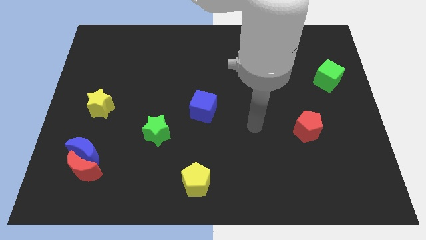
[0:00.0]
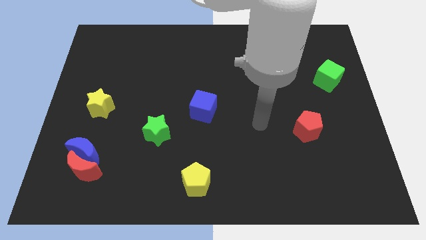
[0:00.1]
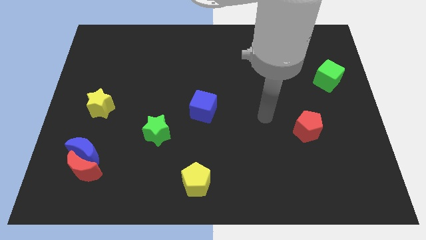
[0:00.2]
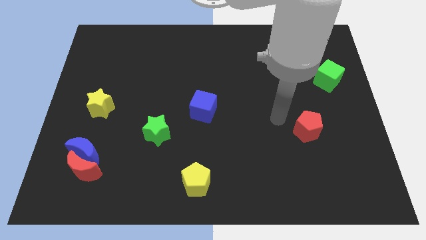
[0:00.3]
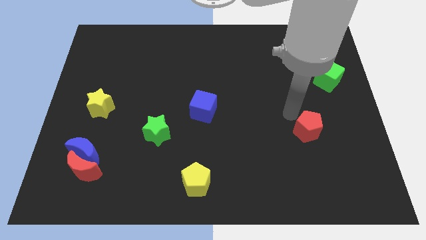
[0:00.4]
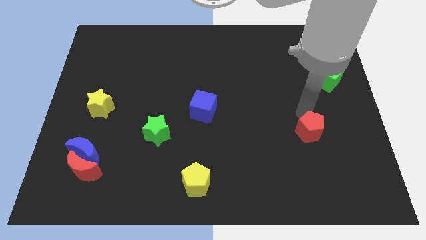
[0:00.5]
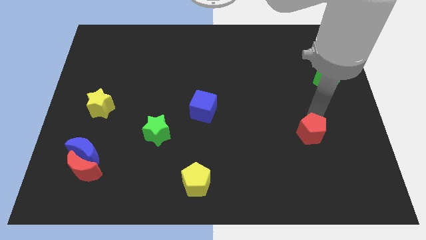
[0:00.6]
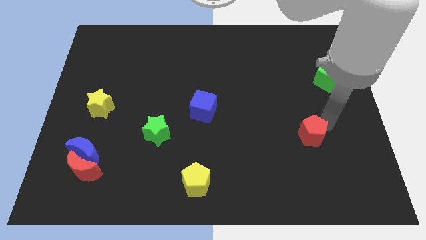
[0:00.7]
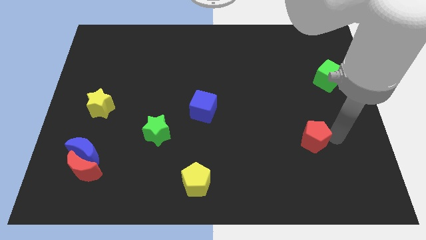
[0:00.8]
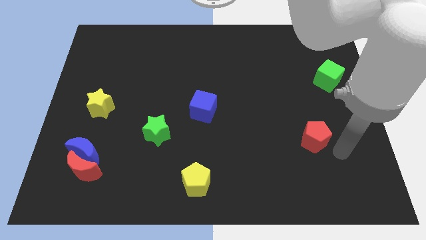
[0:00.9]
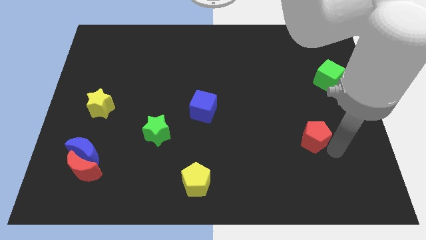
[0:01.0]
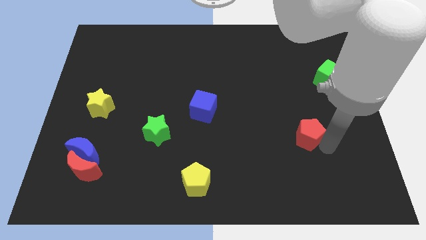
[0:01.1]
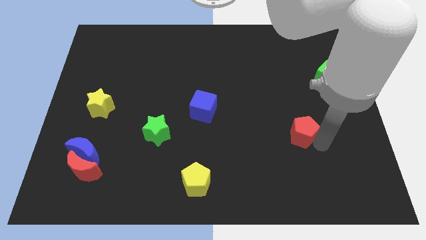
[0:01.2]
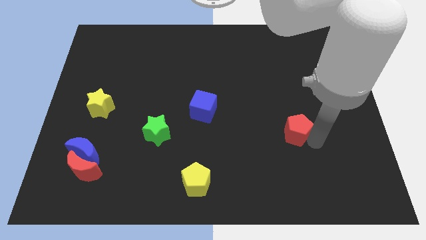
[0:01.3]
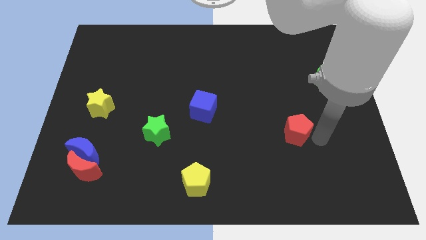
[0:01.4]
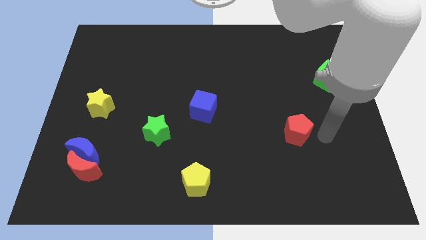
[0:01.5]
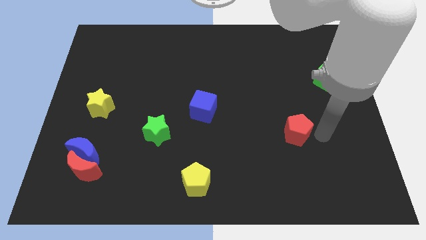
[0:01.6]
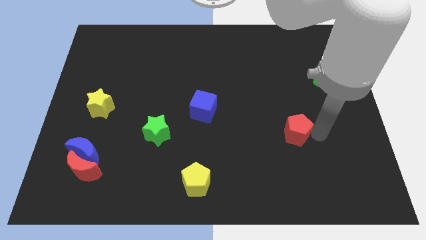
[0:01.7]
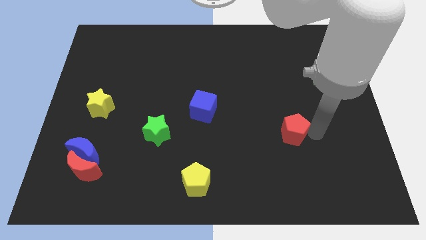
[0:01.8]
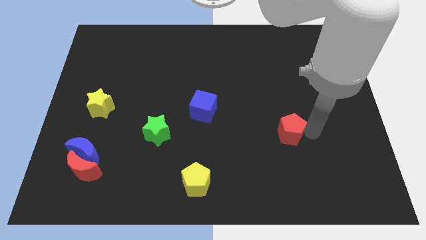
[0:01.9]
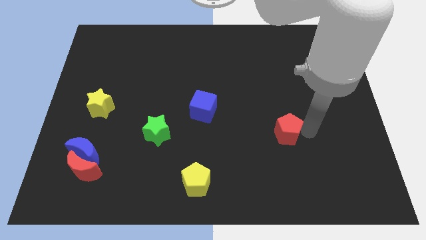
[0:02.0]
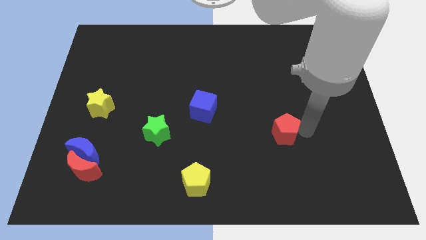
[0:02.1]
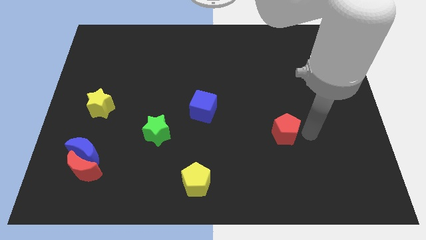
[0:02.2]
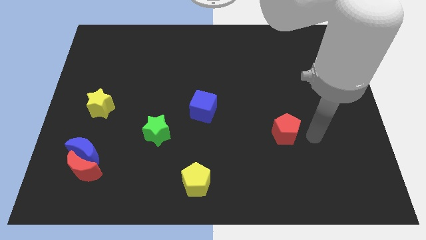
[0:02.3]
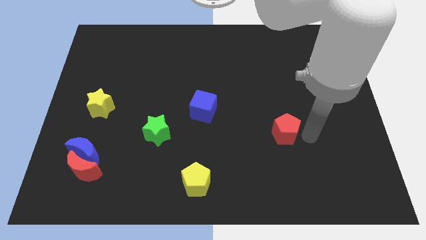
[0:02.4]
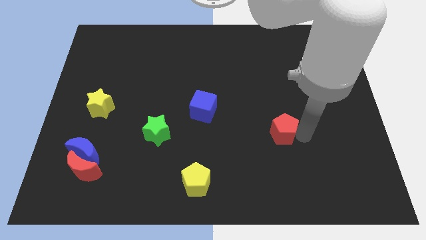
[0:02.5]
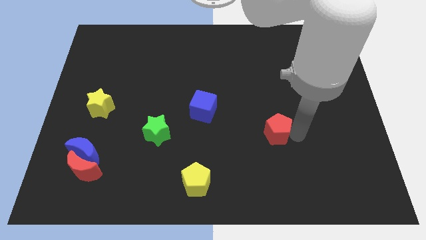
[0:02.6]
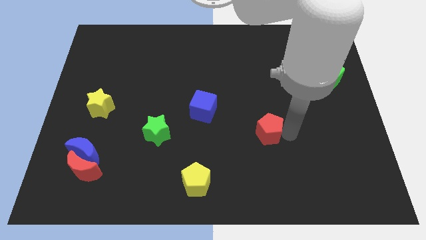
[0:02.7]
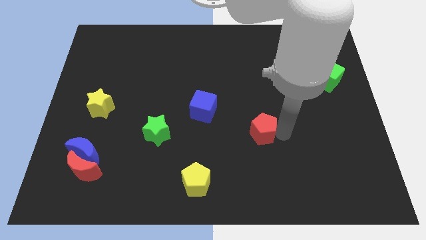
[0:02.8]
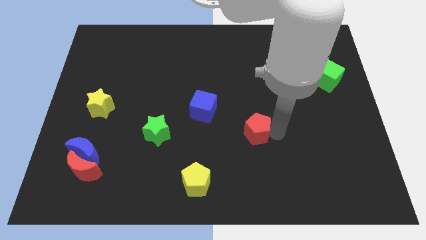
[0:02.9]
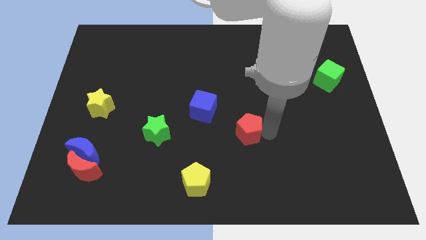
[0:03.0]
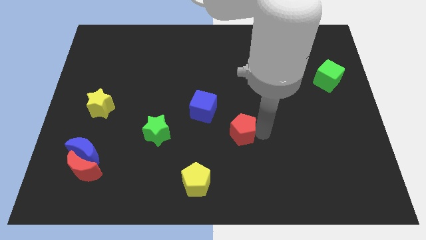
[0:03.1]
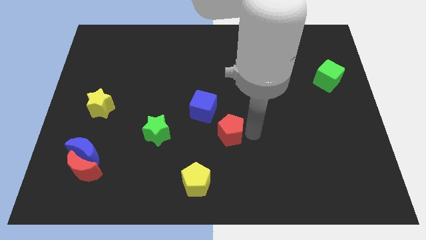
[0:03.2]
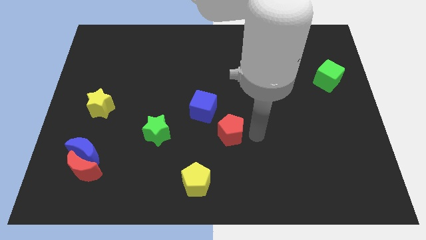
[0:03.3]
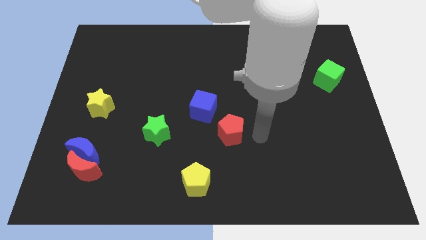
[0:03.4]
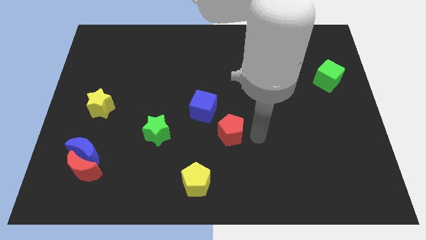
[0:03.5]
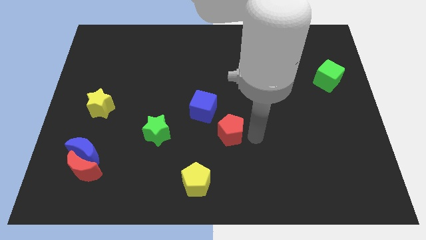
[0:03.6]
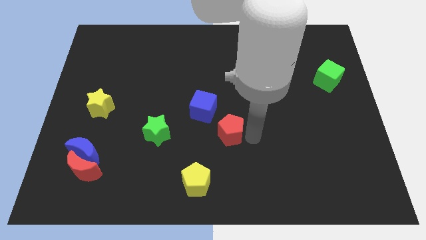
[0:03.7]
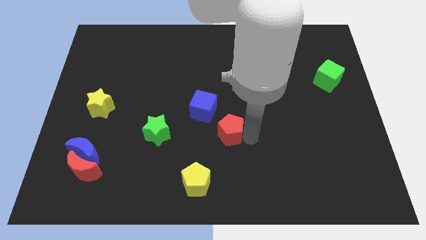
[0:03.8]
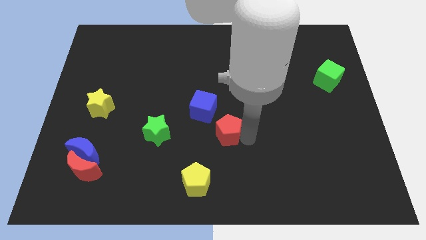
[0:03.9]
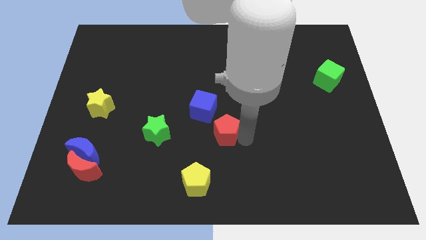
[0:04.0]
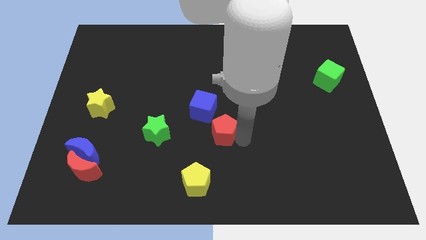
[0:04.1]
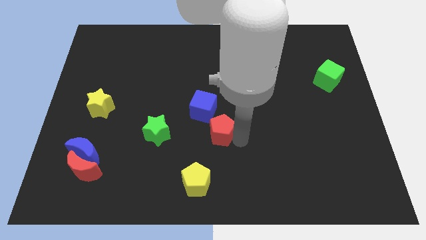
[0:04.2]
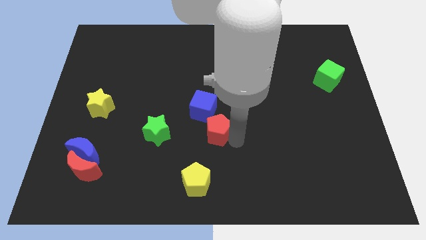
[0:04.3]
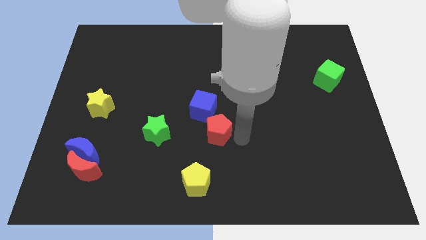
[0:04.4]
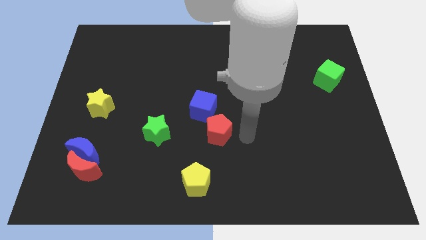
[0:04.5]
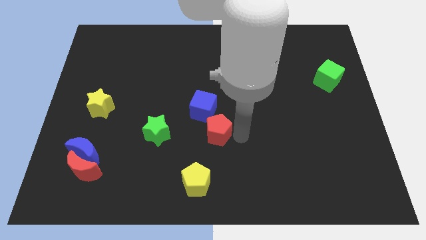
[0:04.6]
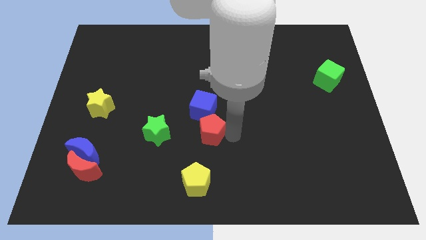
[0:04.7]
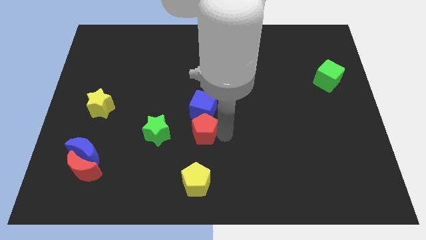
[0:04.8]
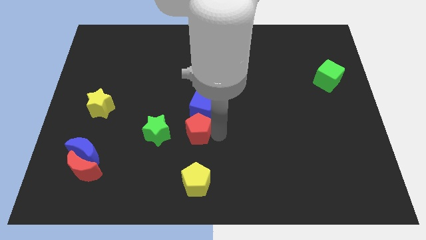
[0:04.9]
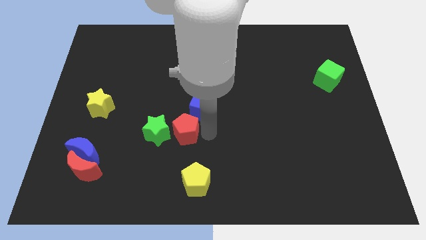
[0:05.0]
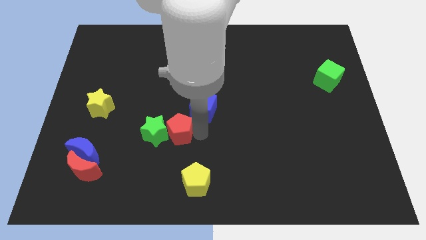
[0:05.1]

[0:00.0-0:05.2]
move the red pentagon next to the green star

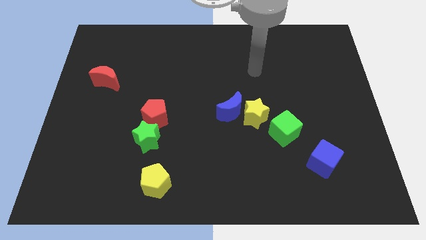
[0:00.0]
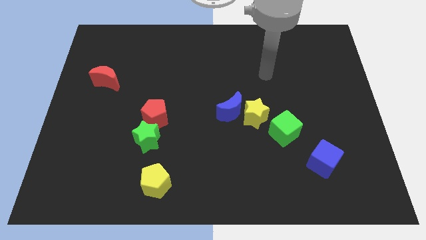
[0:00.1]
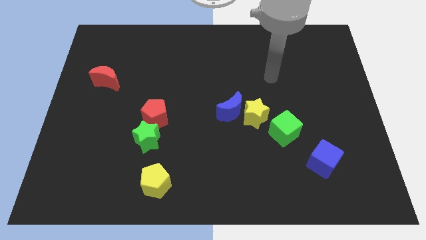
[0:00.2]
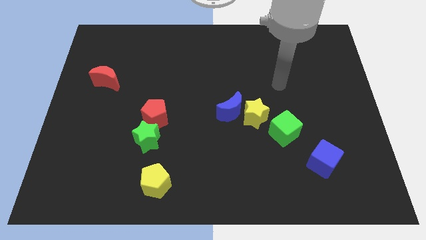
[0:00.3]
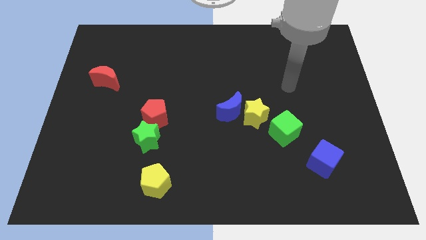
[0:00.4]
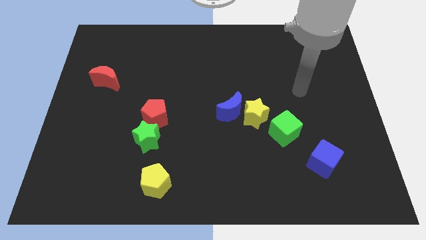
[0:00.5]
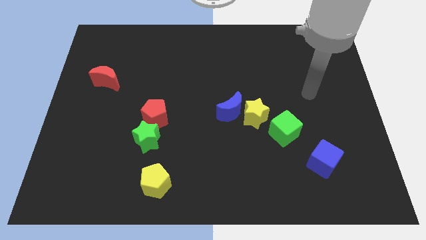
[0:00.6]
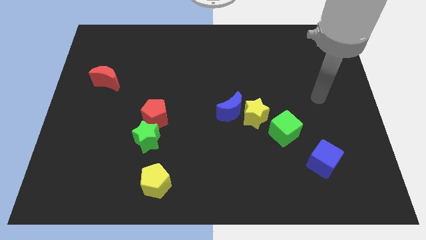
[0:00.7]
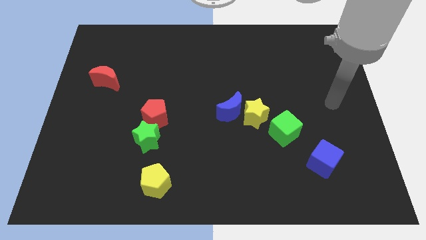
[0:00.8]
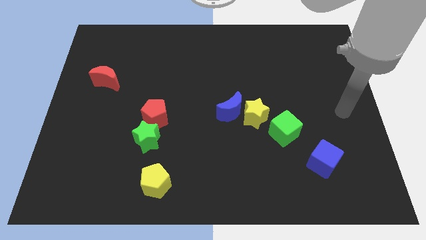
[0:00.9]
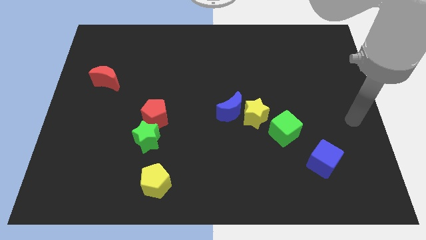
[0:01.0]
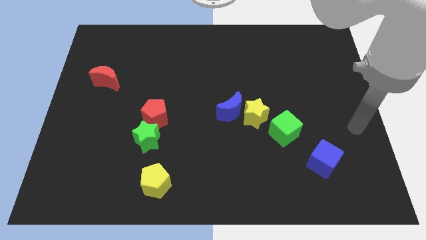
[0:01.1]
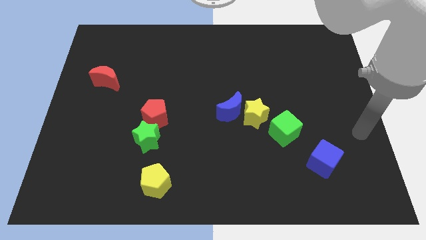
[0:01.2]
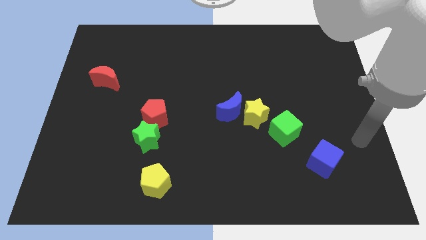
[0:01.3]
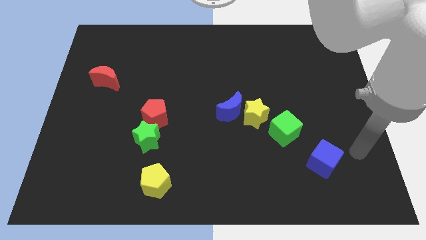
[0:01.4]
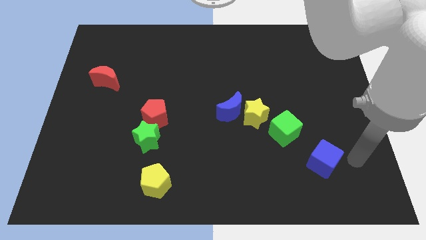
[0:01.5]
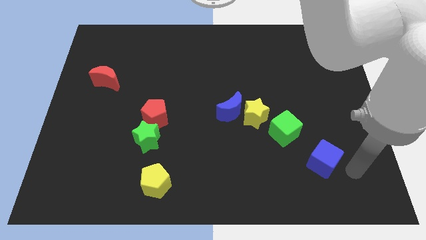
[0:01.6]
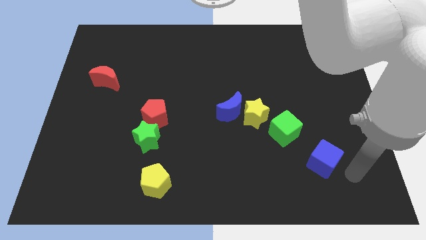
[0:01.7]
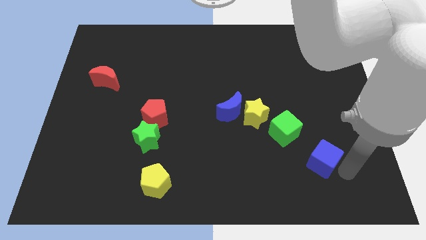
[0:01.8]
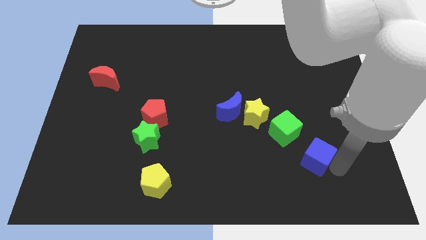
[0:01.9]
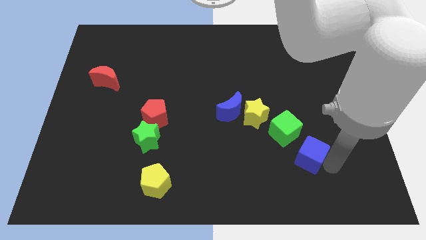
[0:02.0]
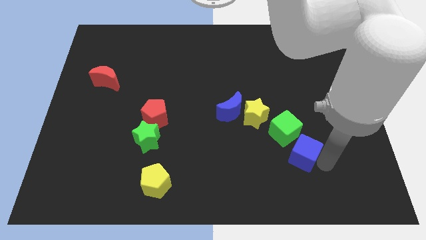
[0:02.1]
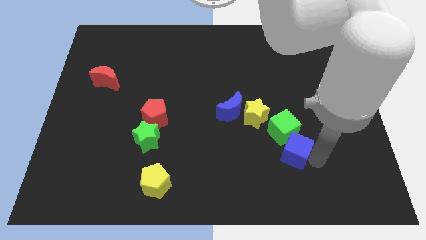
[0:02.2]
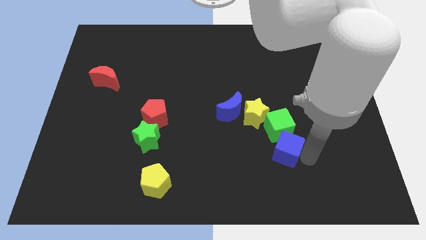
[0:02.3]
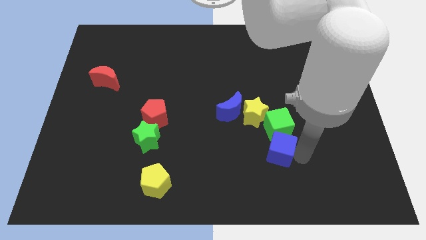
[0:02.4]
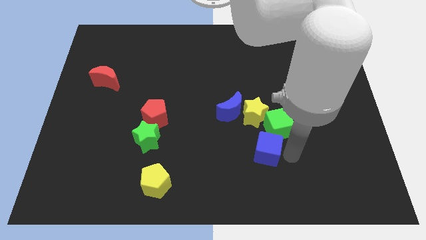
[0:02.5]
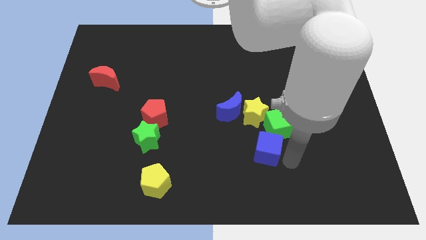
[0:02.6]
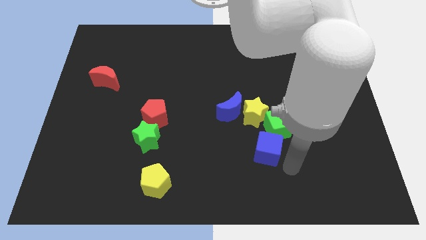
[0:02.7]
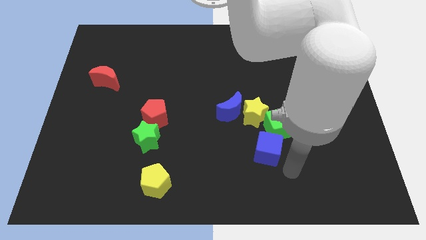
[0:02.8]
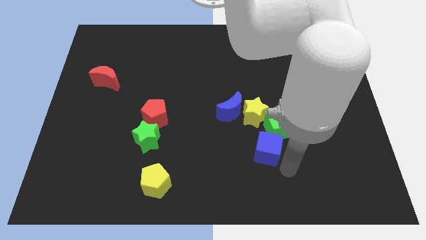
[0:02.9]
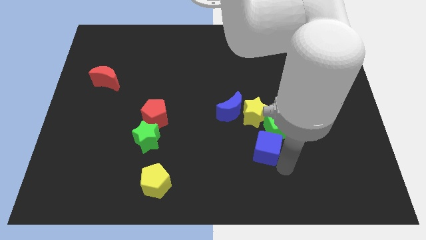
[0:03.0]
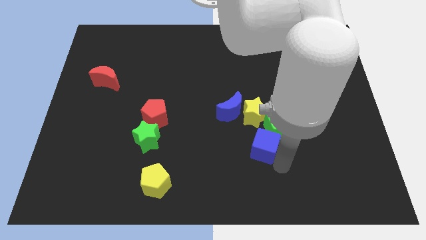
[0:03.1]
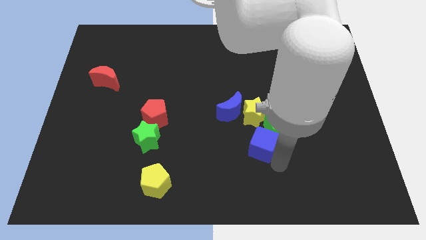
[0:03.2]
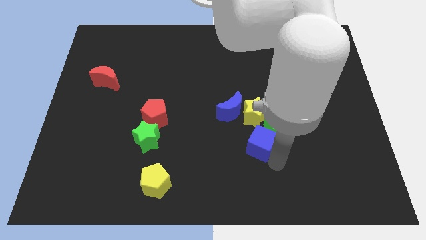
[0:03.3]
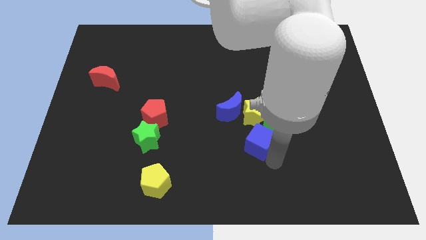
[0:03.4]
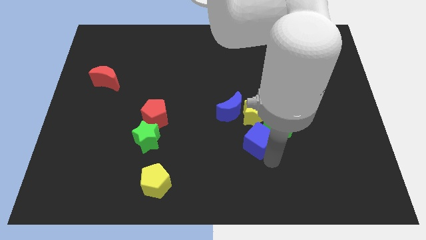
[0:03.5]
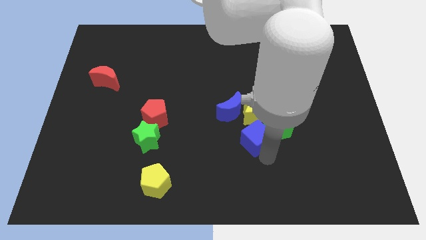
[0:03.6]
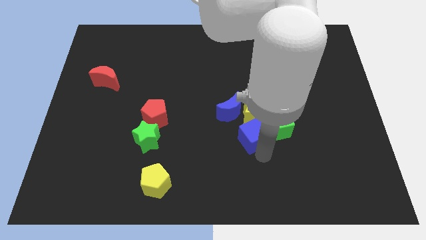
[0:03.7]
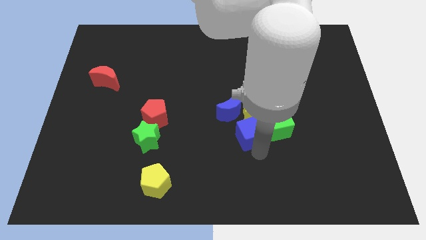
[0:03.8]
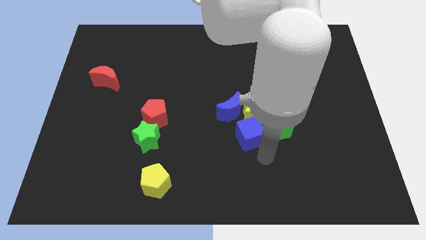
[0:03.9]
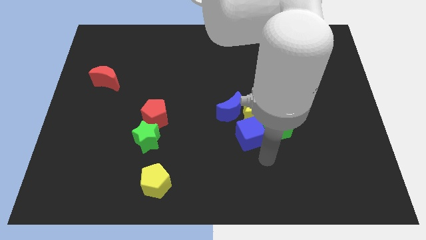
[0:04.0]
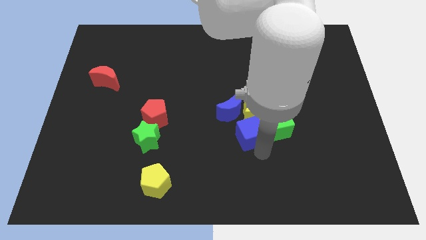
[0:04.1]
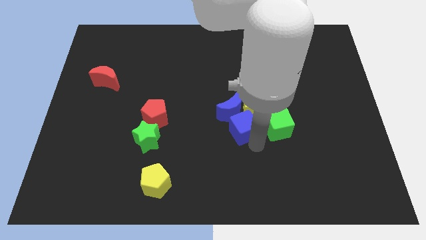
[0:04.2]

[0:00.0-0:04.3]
push the blue cube towards the blue moon
